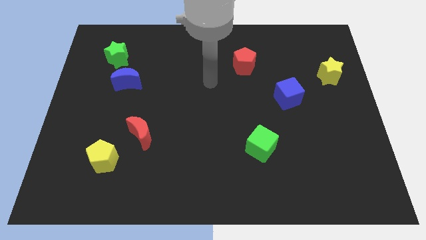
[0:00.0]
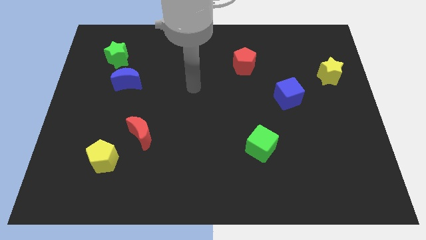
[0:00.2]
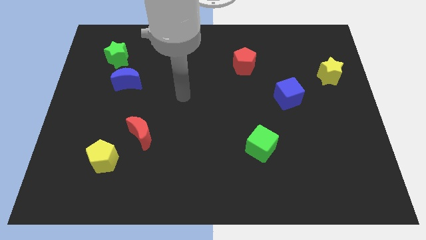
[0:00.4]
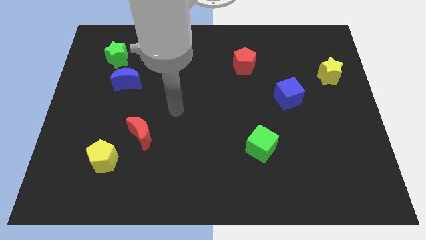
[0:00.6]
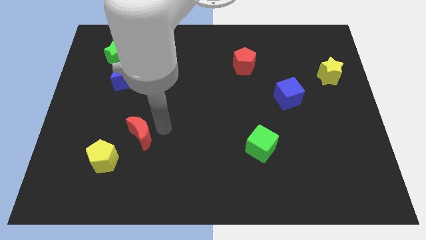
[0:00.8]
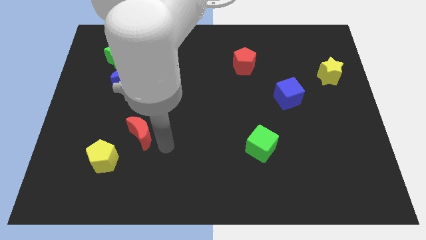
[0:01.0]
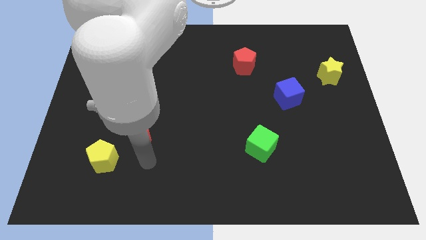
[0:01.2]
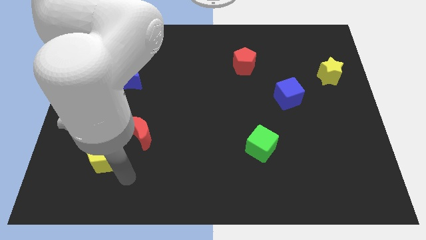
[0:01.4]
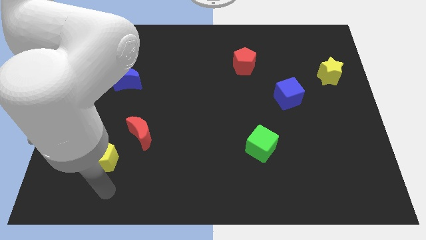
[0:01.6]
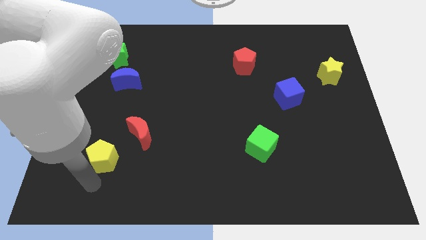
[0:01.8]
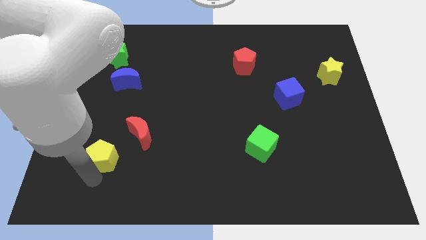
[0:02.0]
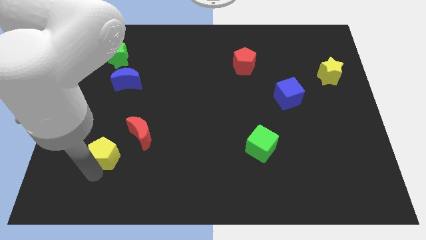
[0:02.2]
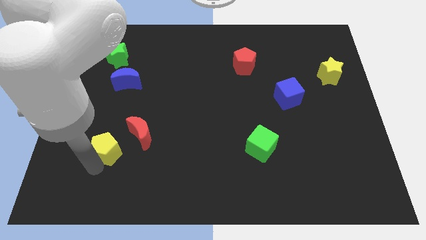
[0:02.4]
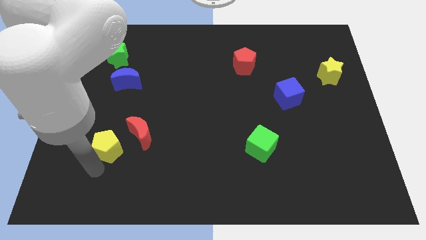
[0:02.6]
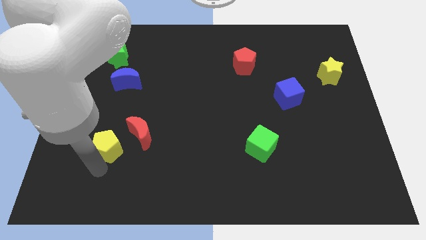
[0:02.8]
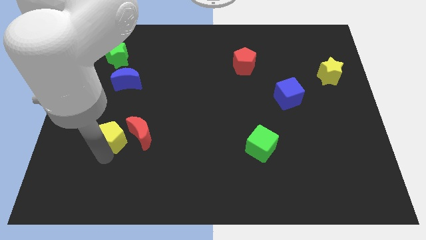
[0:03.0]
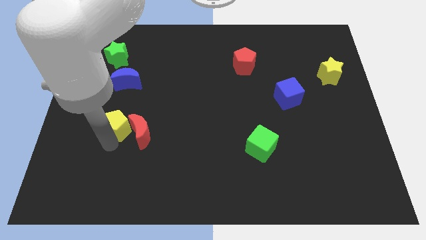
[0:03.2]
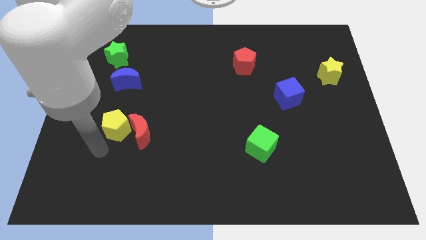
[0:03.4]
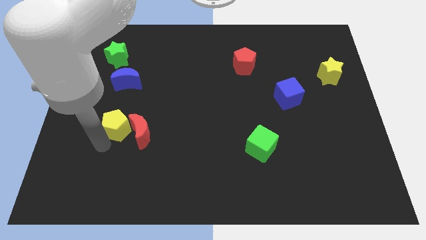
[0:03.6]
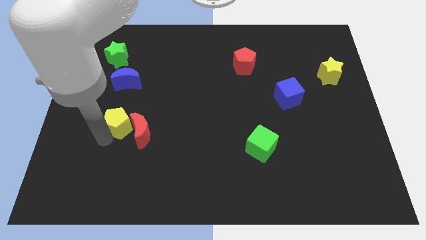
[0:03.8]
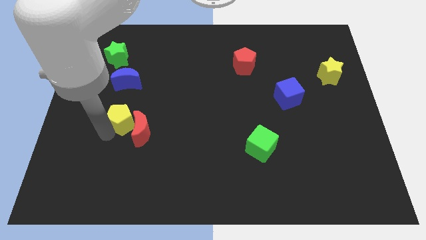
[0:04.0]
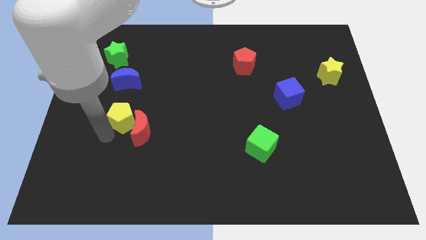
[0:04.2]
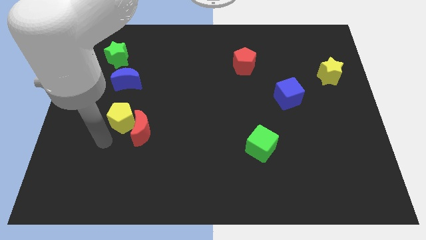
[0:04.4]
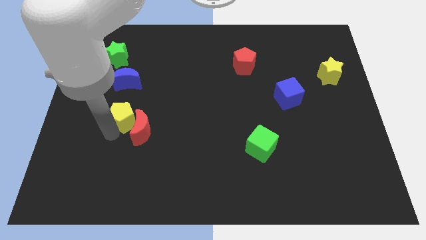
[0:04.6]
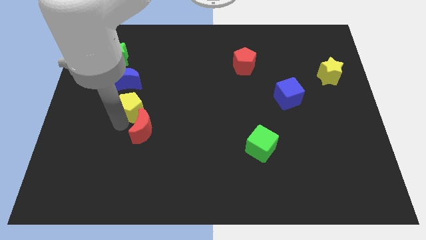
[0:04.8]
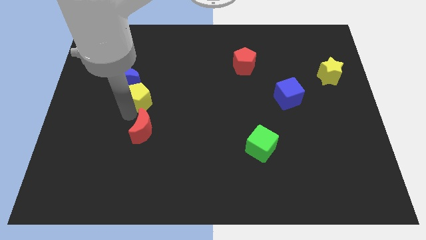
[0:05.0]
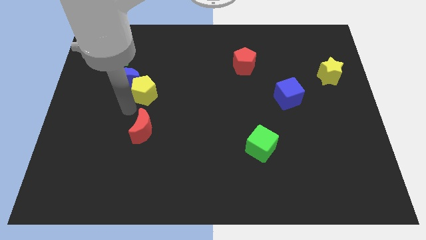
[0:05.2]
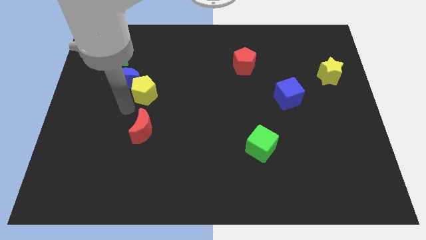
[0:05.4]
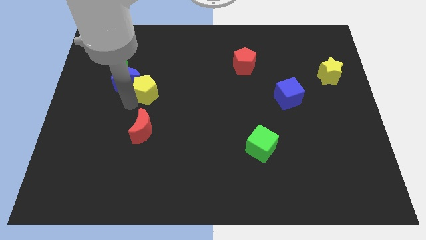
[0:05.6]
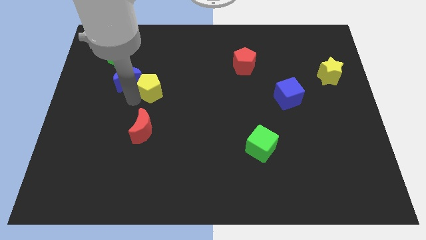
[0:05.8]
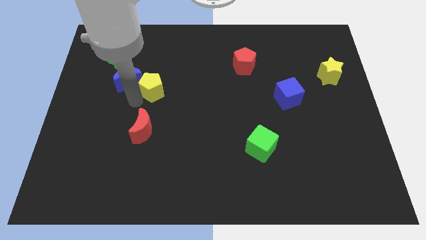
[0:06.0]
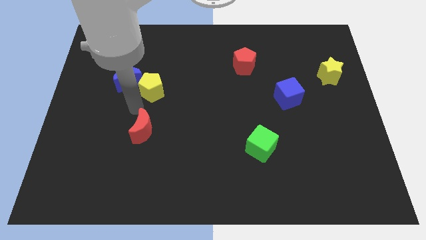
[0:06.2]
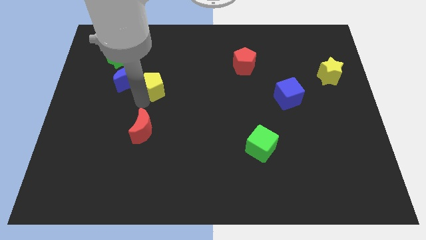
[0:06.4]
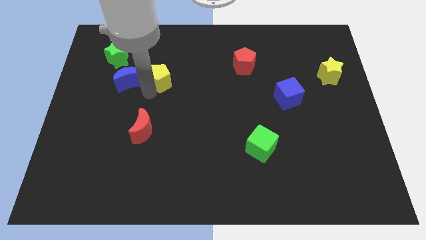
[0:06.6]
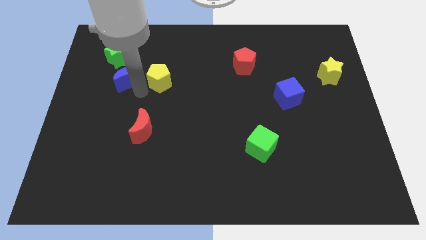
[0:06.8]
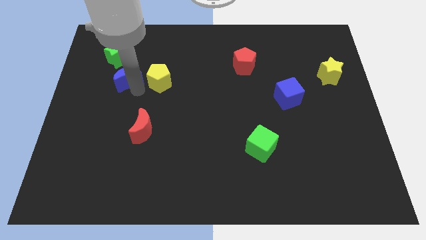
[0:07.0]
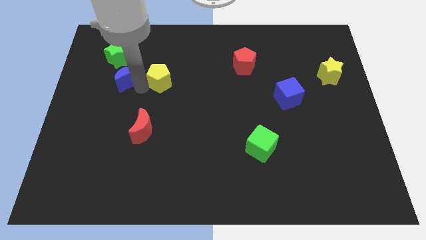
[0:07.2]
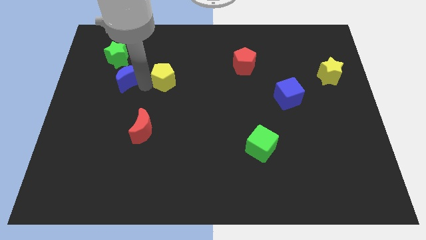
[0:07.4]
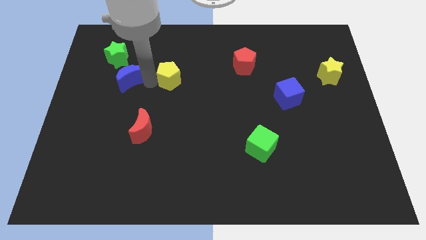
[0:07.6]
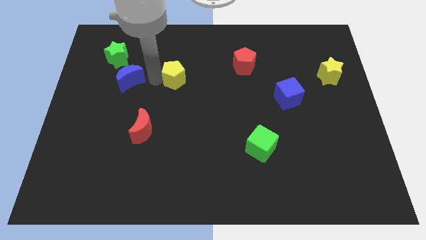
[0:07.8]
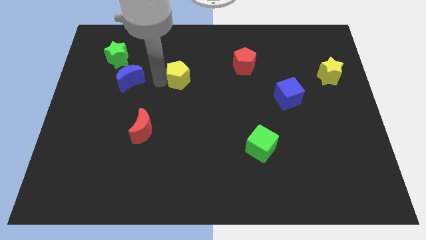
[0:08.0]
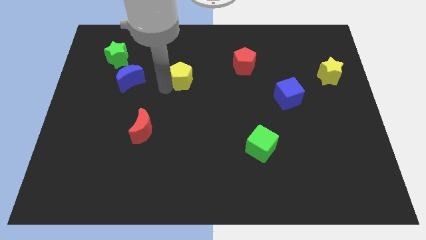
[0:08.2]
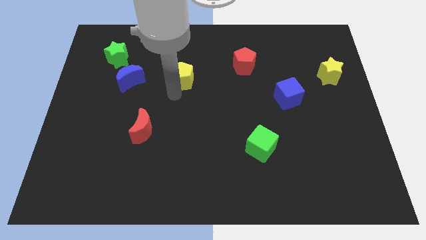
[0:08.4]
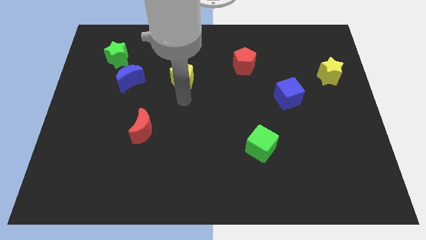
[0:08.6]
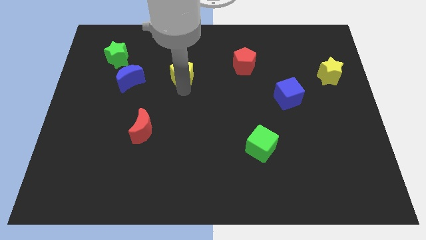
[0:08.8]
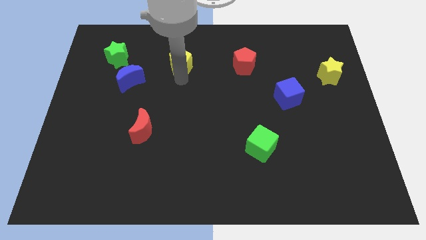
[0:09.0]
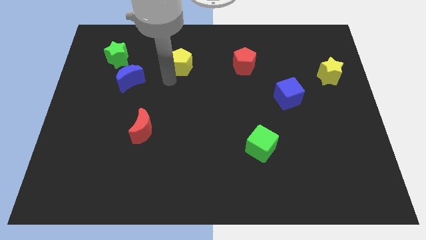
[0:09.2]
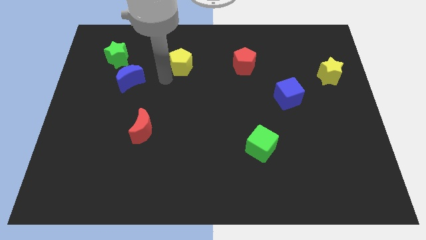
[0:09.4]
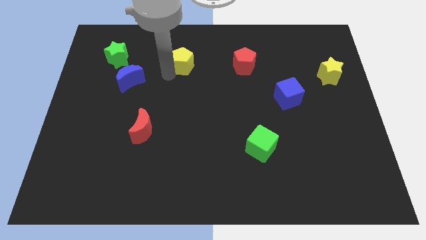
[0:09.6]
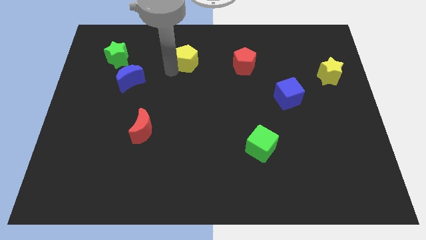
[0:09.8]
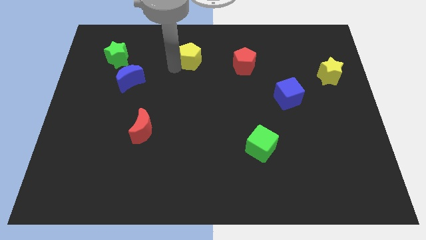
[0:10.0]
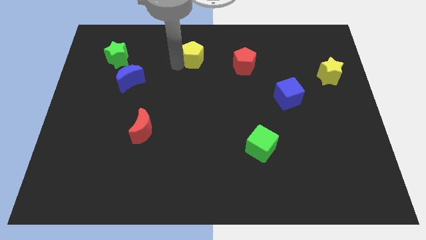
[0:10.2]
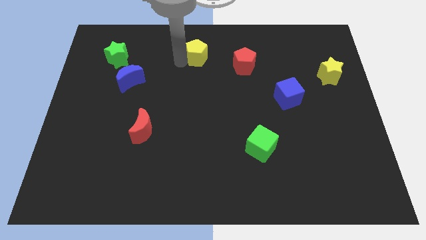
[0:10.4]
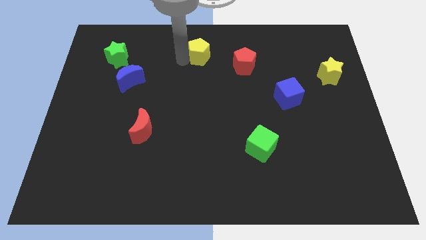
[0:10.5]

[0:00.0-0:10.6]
push the yellow pentagon to the towards your base
